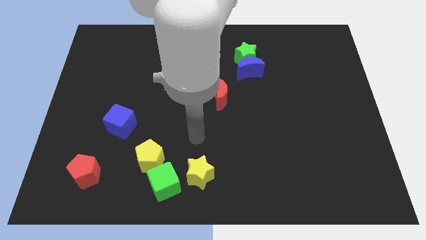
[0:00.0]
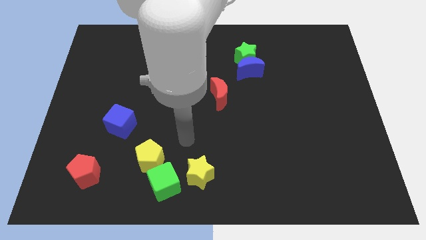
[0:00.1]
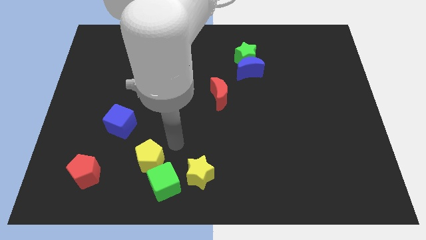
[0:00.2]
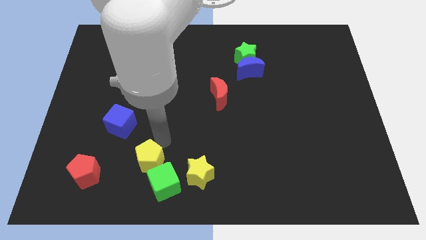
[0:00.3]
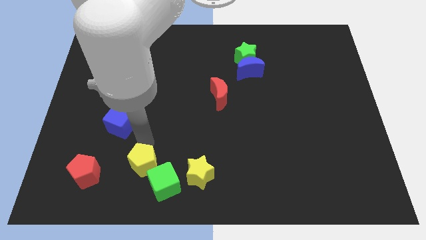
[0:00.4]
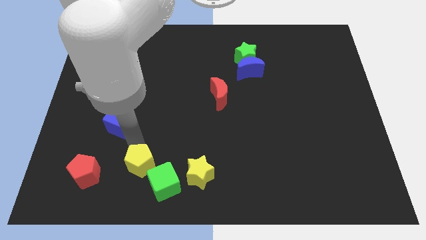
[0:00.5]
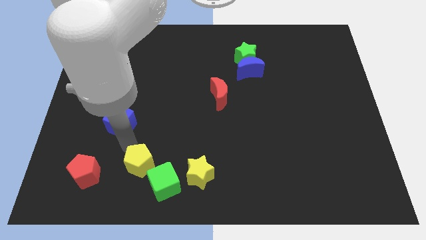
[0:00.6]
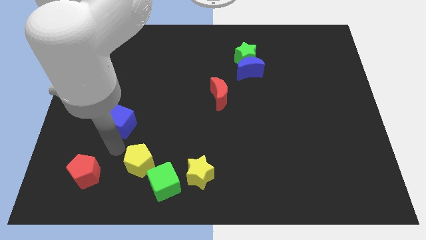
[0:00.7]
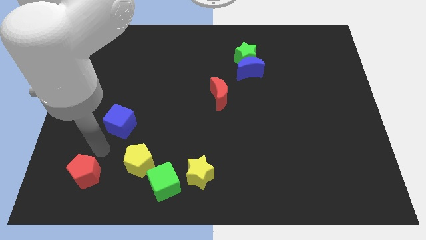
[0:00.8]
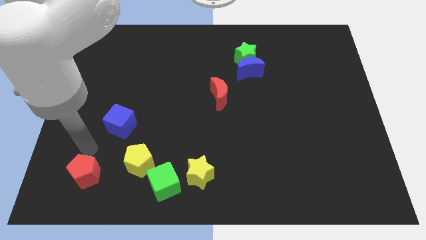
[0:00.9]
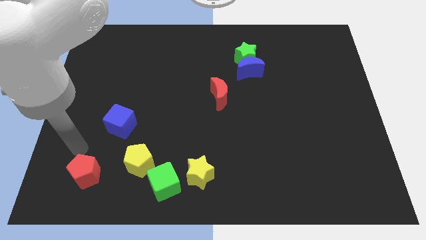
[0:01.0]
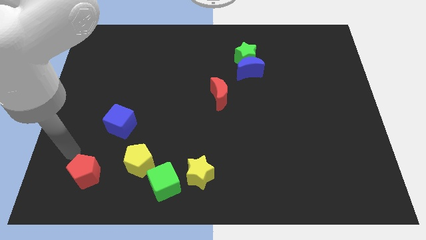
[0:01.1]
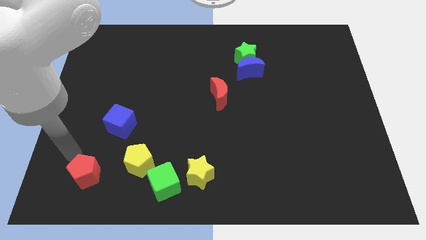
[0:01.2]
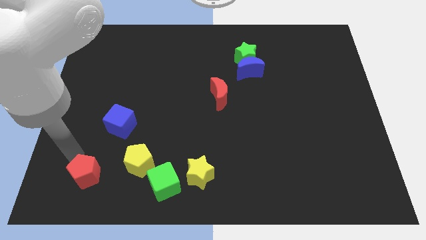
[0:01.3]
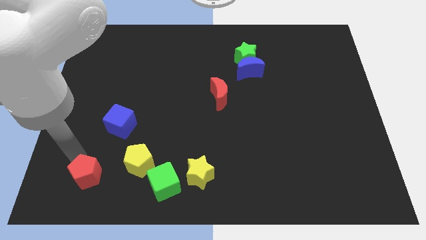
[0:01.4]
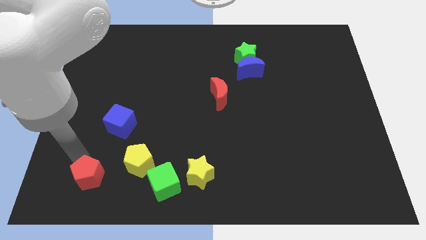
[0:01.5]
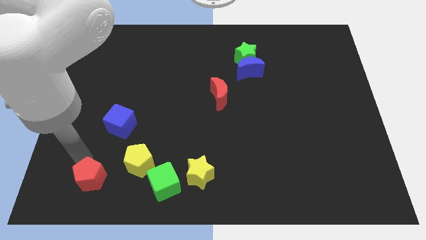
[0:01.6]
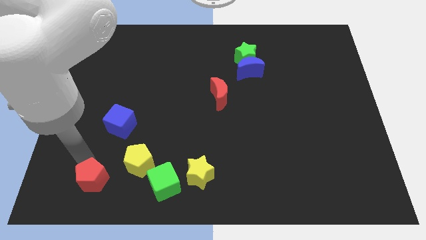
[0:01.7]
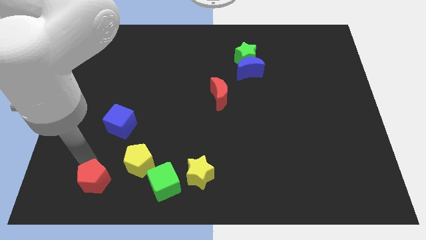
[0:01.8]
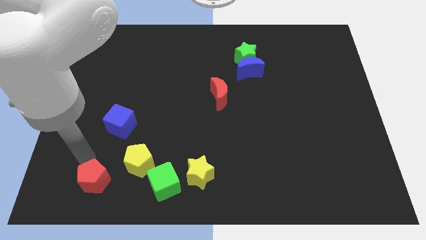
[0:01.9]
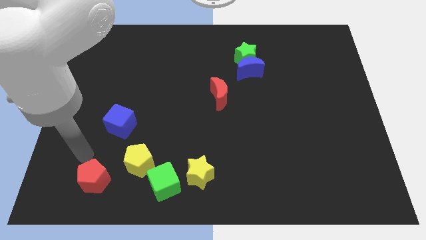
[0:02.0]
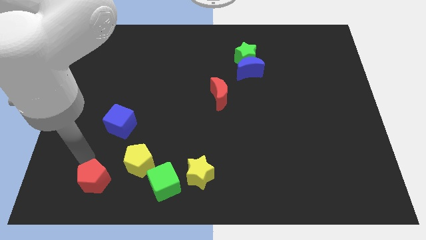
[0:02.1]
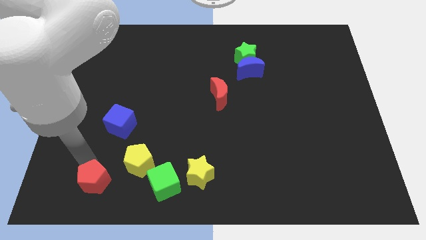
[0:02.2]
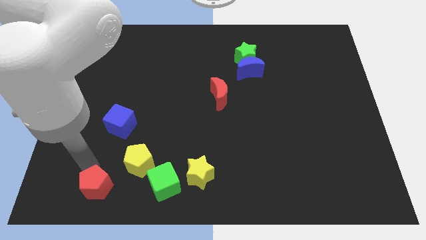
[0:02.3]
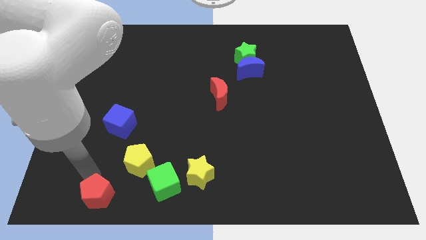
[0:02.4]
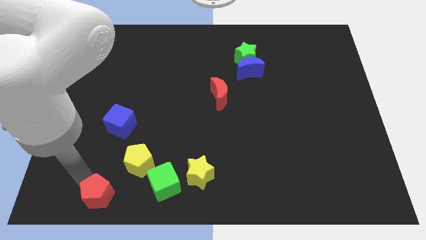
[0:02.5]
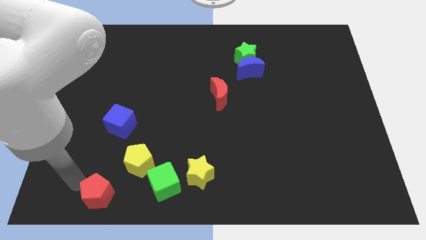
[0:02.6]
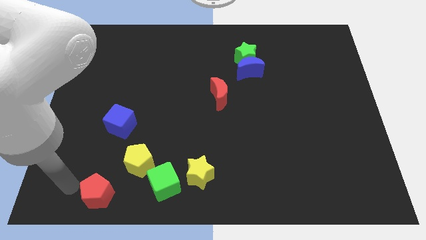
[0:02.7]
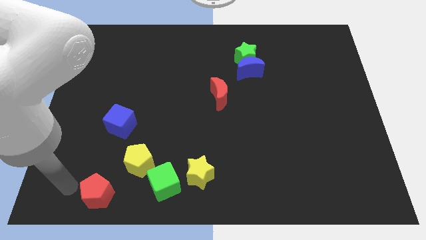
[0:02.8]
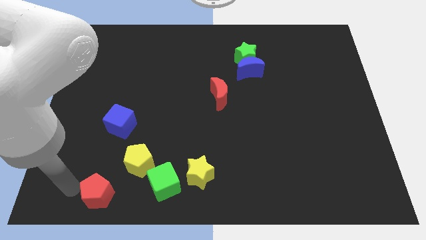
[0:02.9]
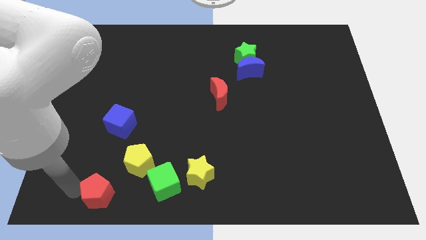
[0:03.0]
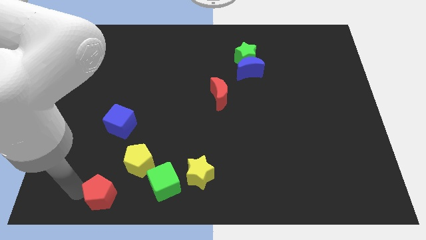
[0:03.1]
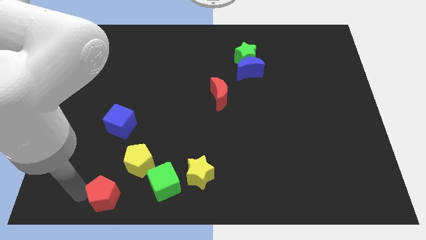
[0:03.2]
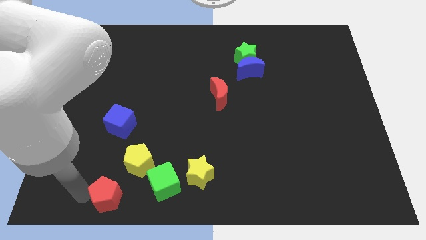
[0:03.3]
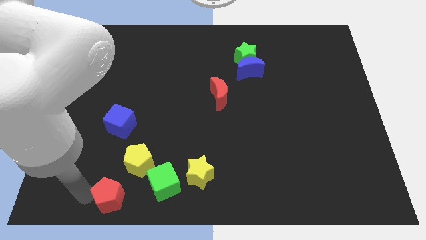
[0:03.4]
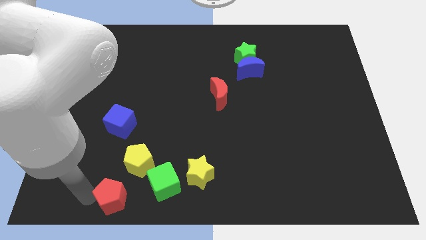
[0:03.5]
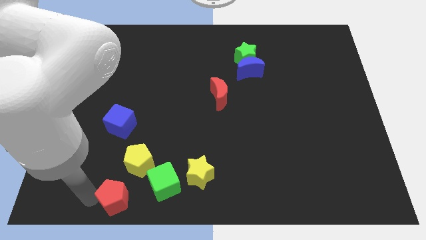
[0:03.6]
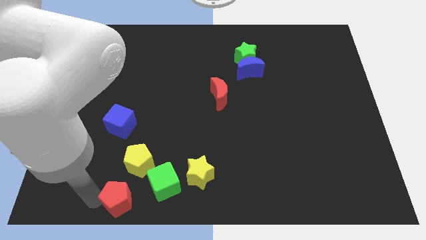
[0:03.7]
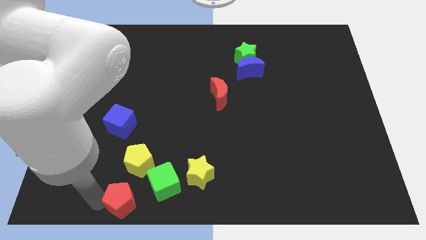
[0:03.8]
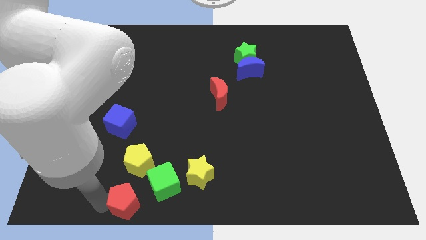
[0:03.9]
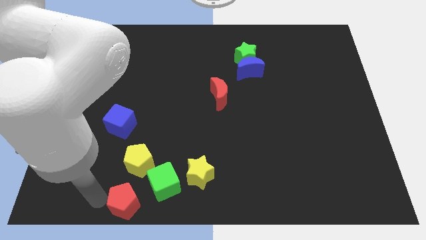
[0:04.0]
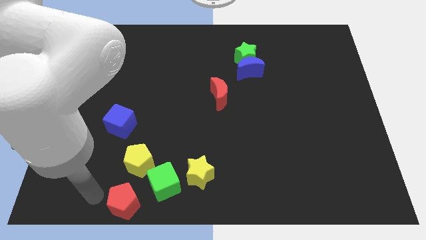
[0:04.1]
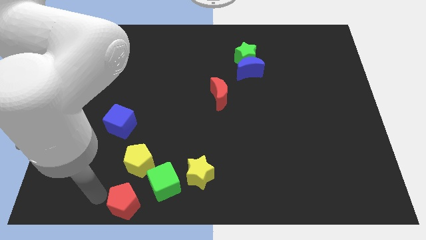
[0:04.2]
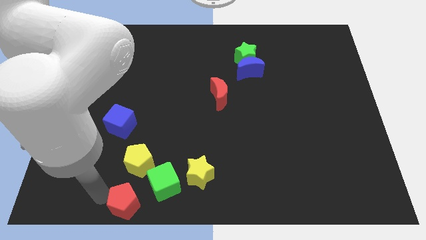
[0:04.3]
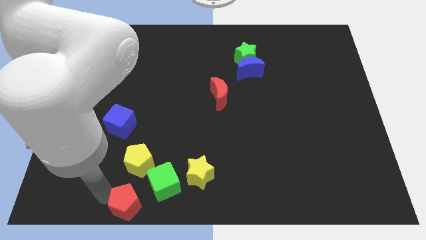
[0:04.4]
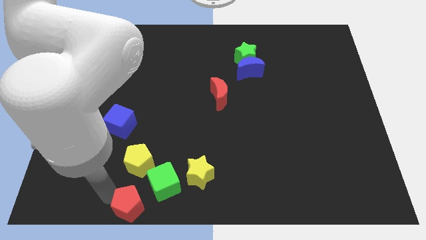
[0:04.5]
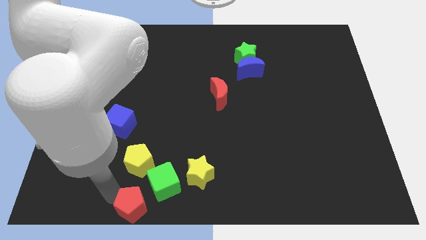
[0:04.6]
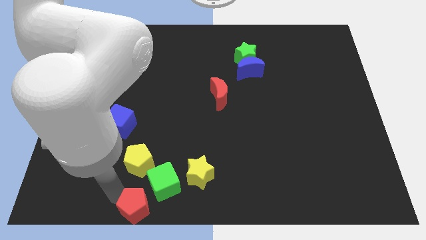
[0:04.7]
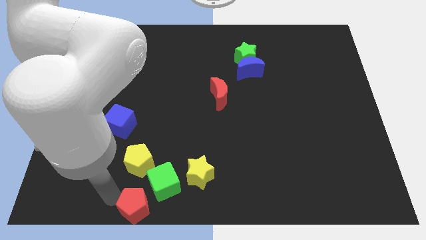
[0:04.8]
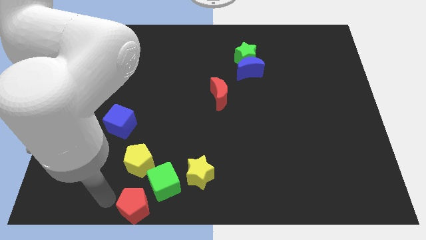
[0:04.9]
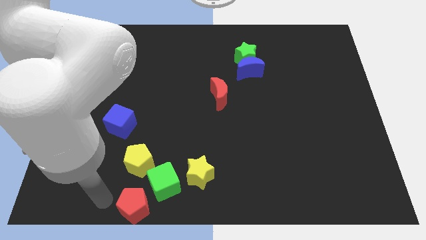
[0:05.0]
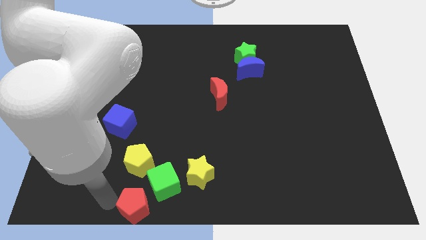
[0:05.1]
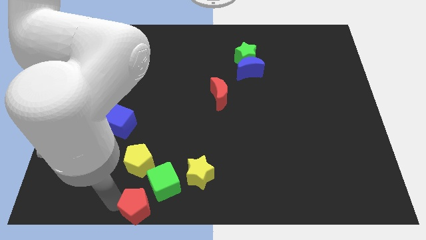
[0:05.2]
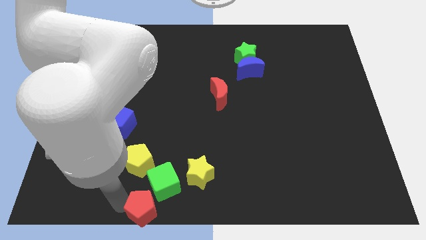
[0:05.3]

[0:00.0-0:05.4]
put the red pentagon to the bottom side

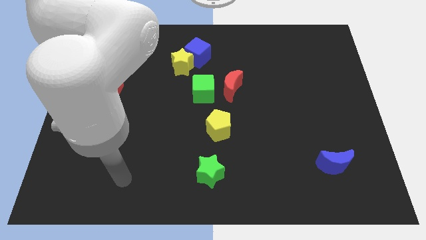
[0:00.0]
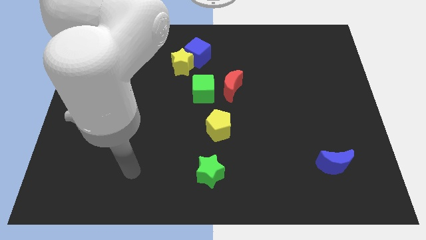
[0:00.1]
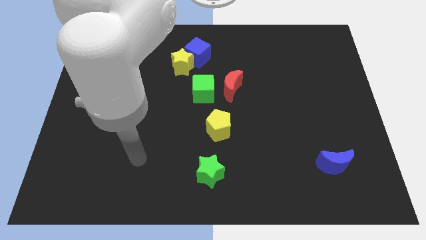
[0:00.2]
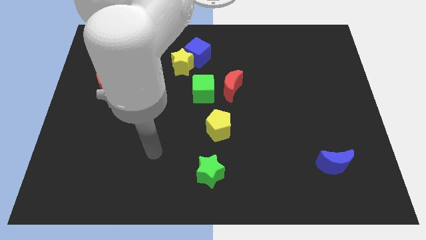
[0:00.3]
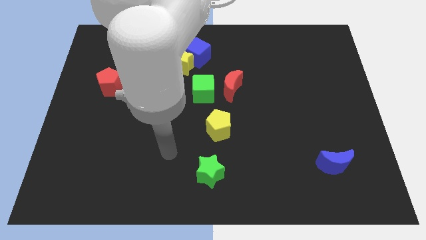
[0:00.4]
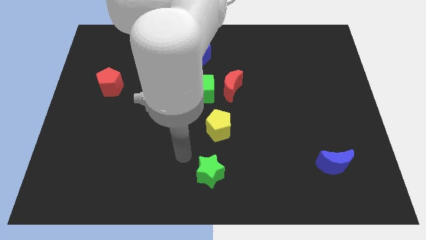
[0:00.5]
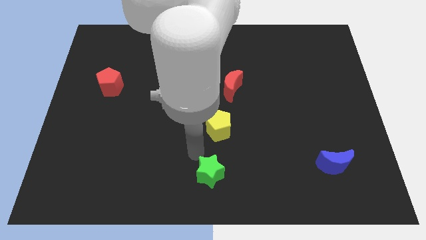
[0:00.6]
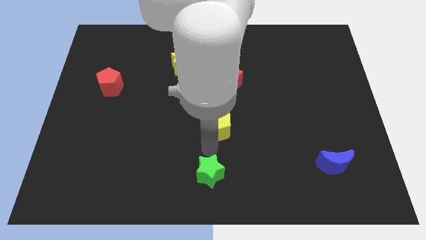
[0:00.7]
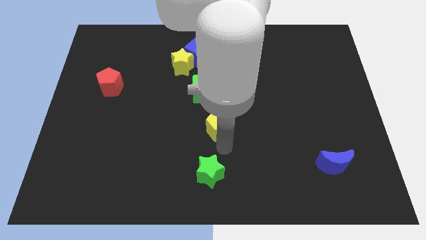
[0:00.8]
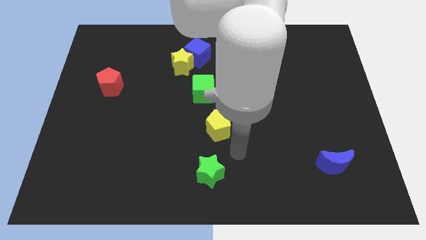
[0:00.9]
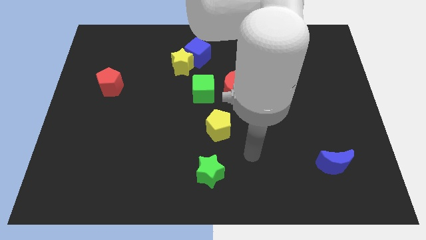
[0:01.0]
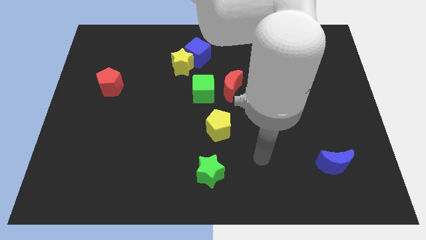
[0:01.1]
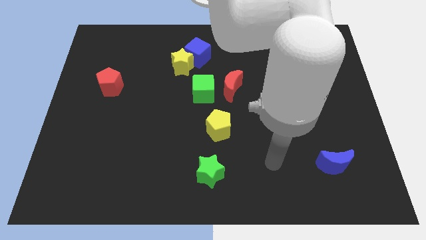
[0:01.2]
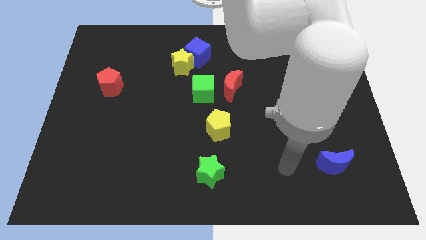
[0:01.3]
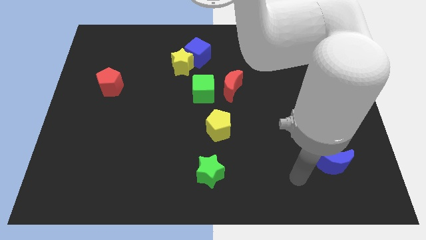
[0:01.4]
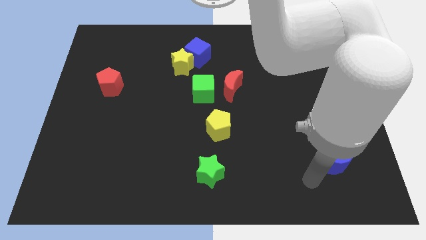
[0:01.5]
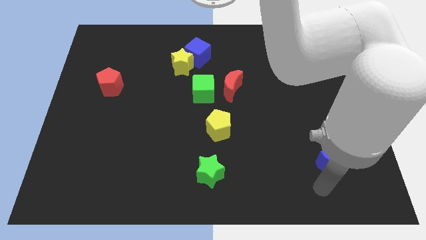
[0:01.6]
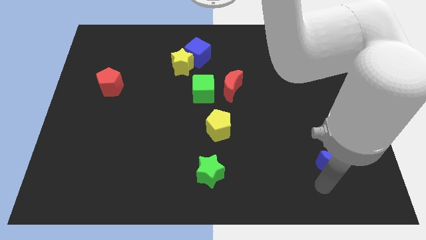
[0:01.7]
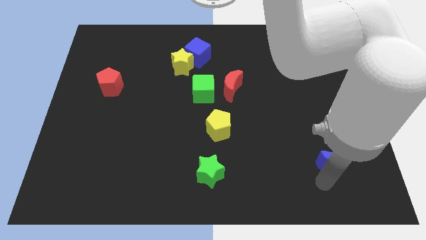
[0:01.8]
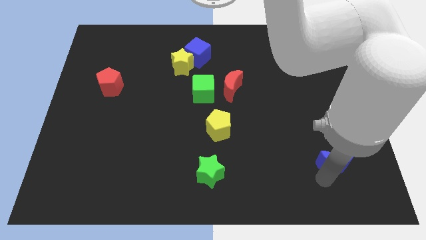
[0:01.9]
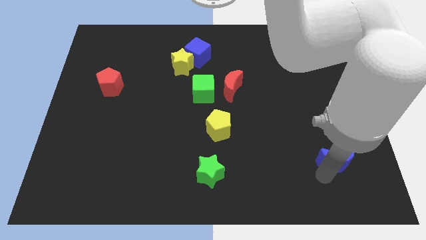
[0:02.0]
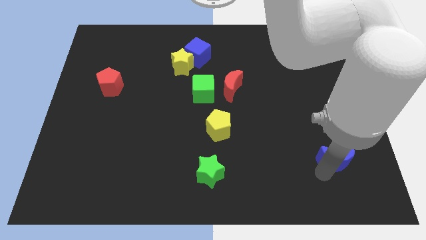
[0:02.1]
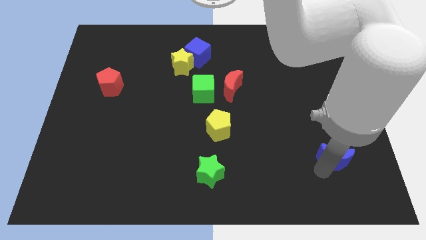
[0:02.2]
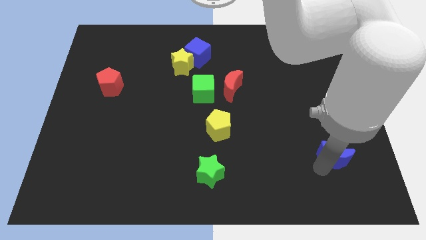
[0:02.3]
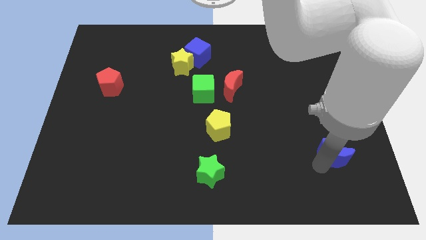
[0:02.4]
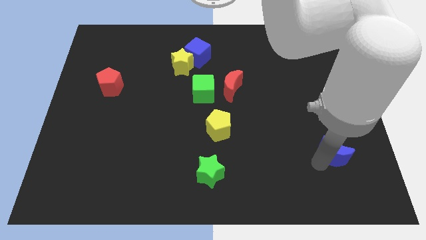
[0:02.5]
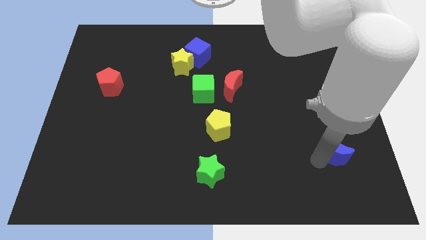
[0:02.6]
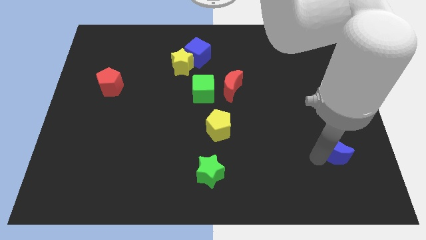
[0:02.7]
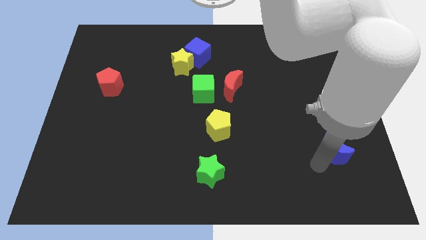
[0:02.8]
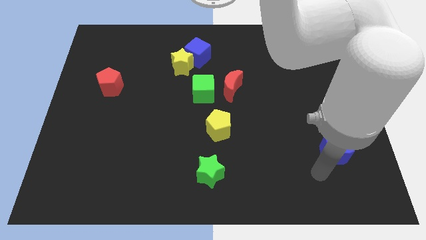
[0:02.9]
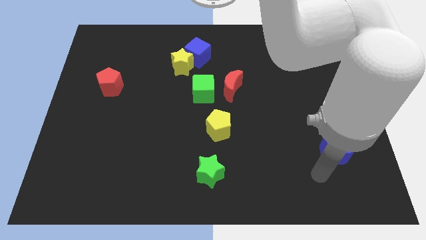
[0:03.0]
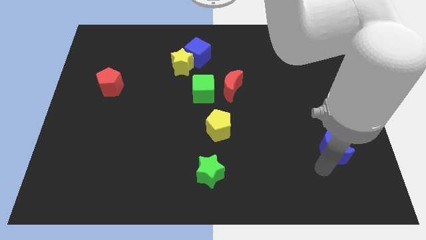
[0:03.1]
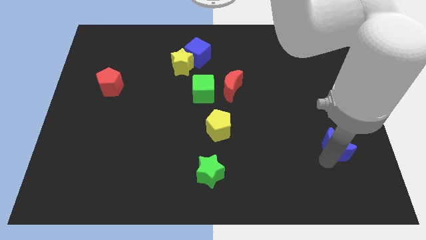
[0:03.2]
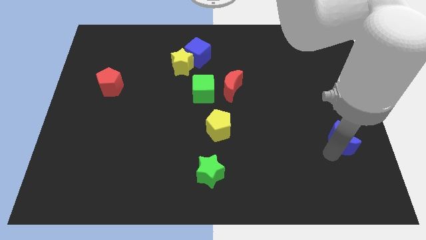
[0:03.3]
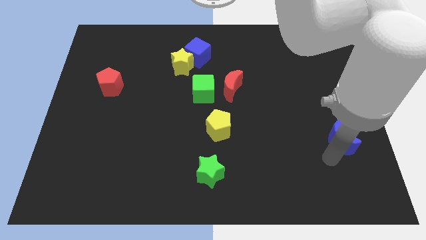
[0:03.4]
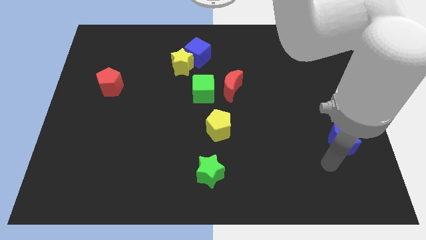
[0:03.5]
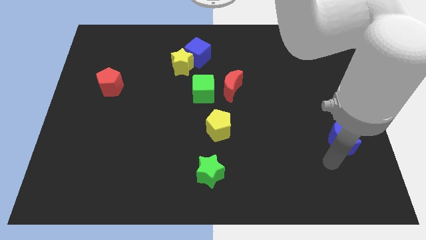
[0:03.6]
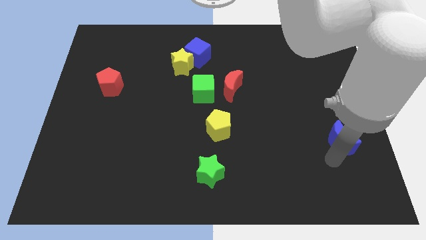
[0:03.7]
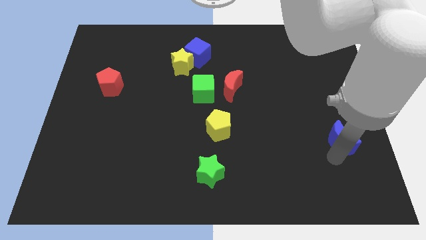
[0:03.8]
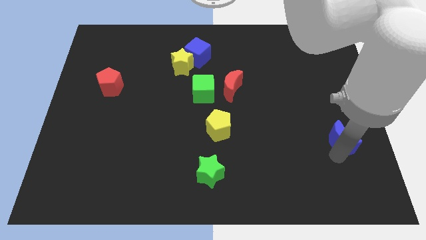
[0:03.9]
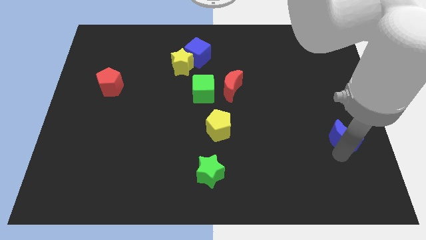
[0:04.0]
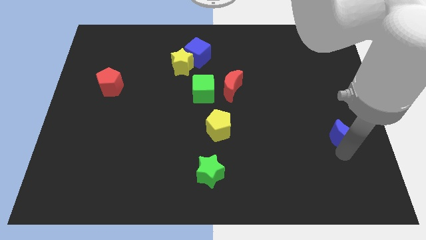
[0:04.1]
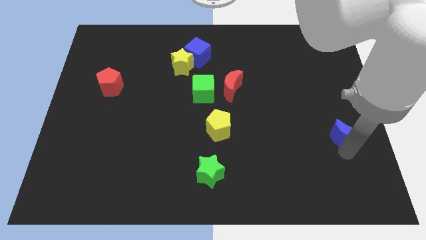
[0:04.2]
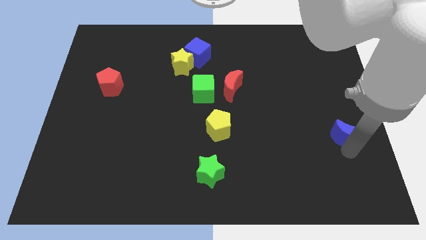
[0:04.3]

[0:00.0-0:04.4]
push the blue moon to the right side of the board
